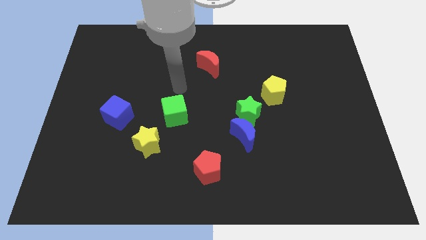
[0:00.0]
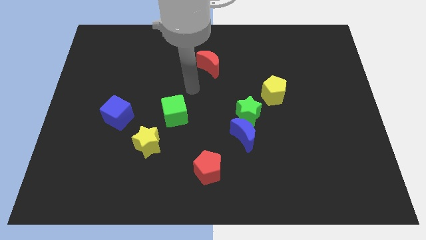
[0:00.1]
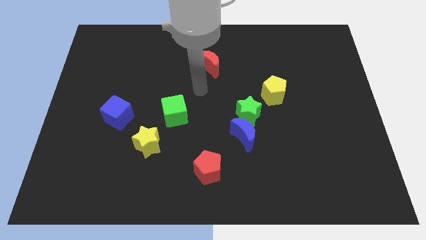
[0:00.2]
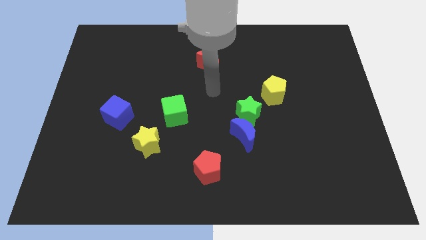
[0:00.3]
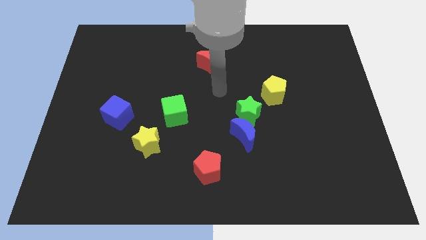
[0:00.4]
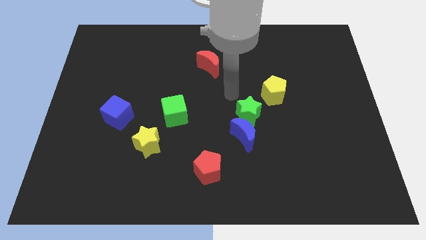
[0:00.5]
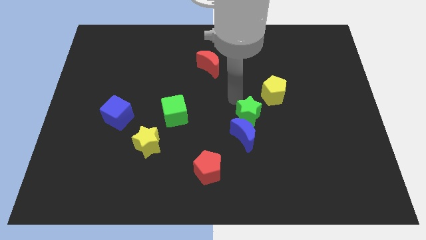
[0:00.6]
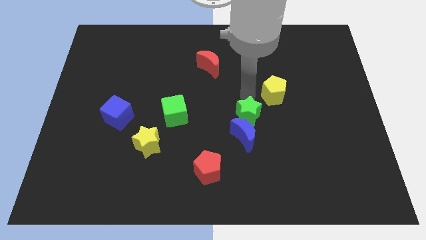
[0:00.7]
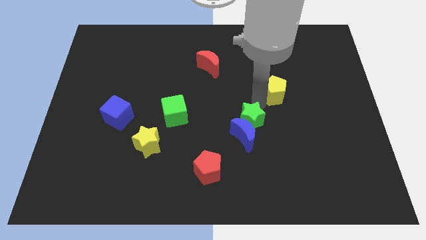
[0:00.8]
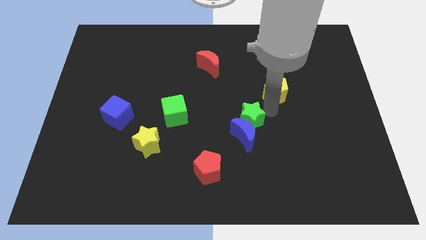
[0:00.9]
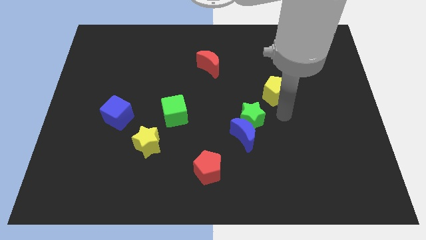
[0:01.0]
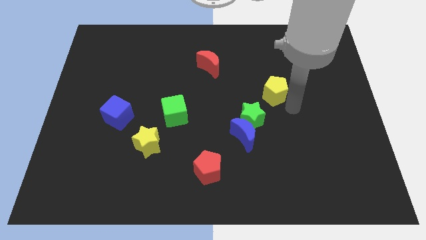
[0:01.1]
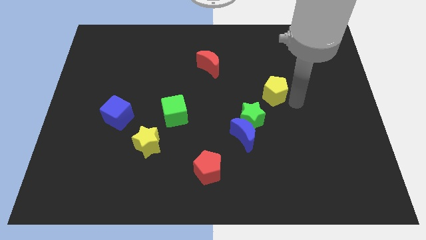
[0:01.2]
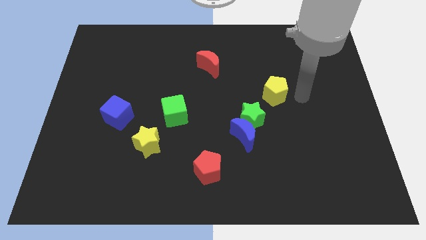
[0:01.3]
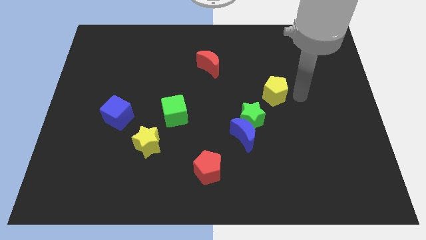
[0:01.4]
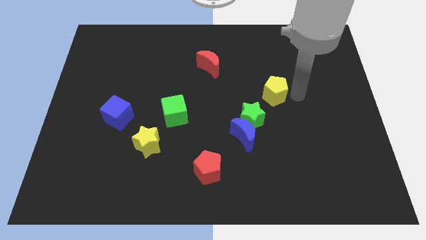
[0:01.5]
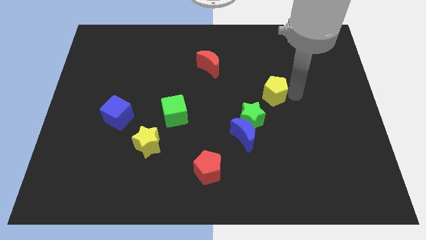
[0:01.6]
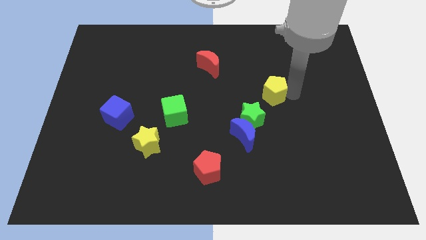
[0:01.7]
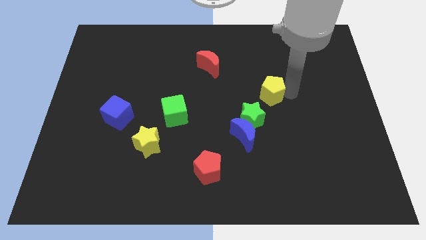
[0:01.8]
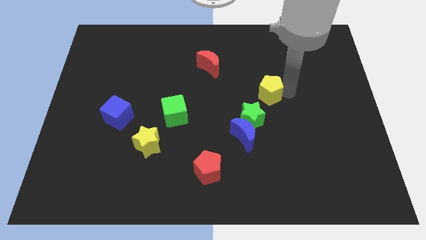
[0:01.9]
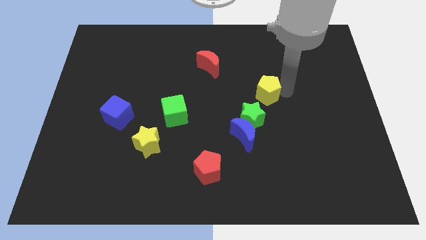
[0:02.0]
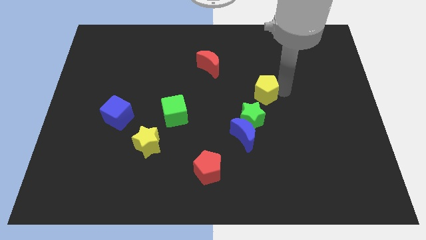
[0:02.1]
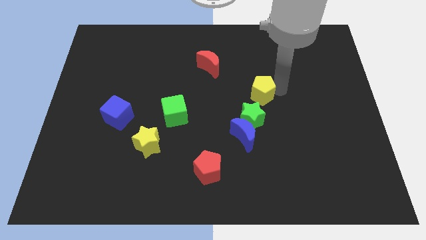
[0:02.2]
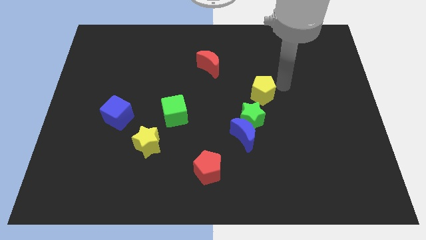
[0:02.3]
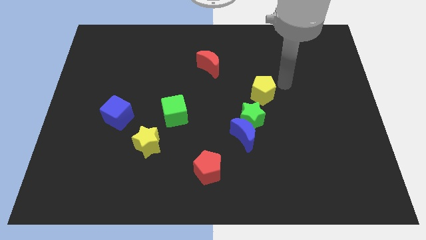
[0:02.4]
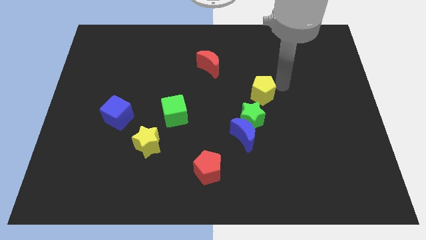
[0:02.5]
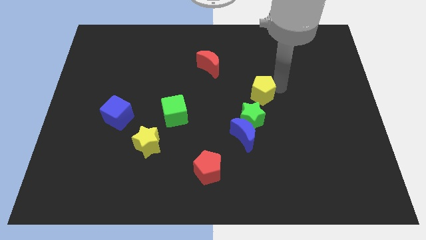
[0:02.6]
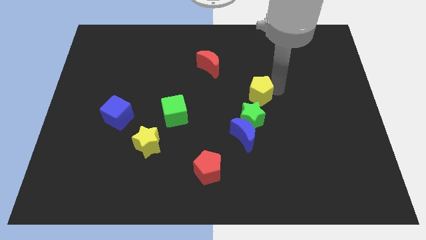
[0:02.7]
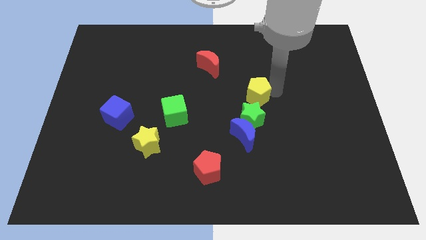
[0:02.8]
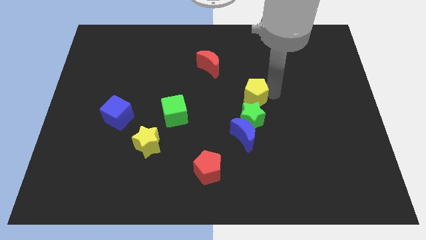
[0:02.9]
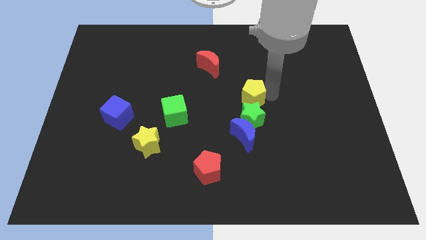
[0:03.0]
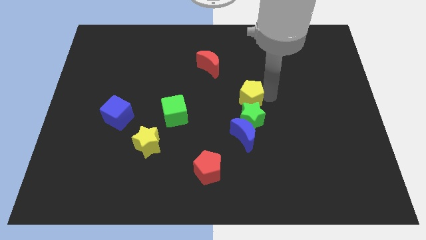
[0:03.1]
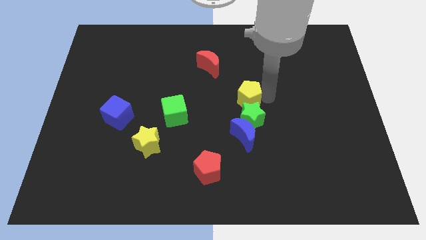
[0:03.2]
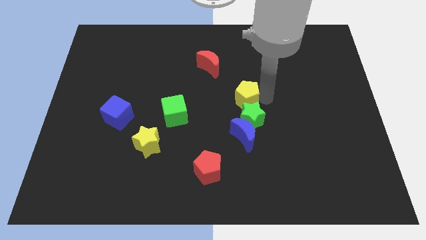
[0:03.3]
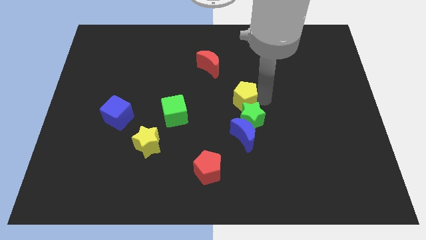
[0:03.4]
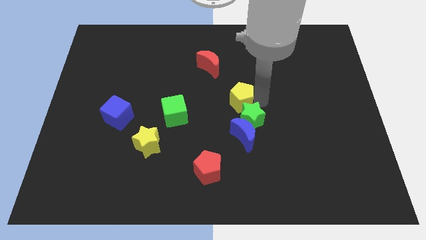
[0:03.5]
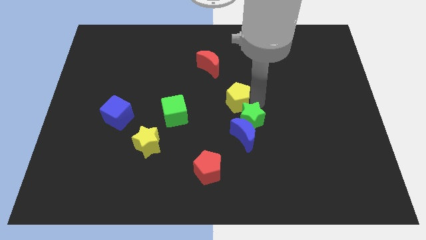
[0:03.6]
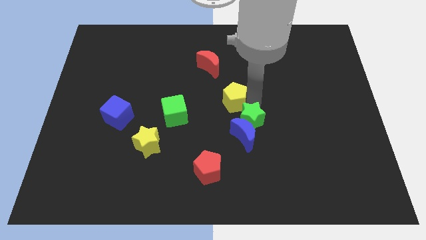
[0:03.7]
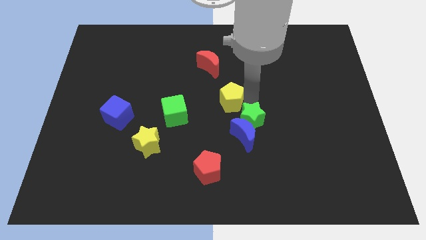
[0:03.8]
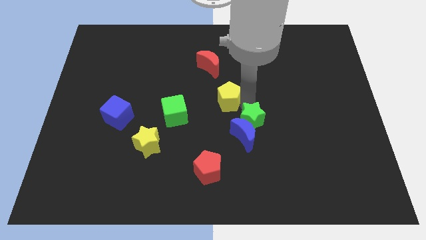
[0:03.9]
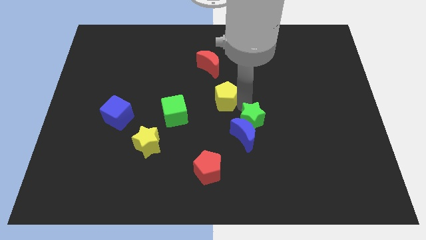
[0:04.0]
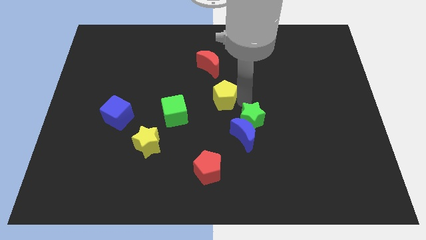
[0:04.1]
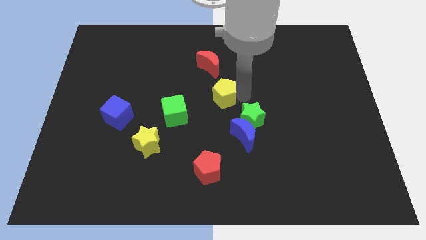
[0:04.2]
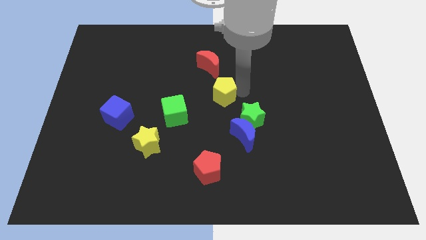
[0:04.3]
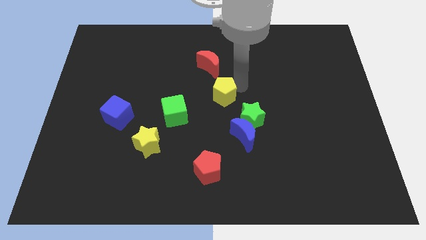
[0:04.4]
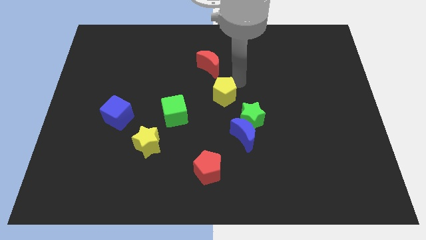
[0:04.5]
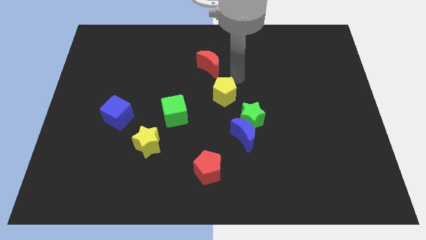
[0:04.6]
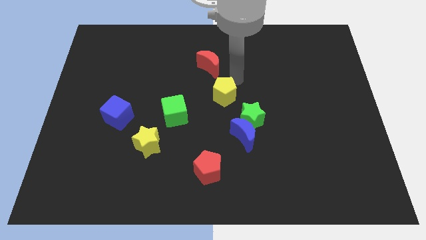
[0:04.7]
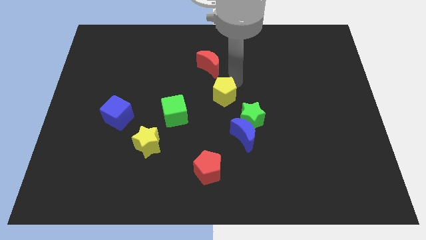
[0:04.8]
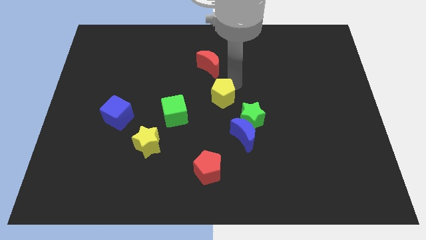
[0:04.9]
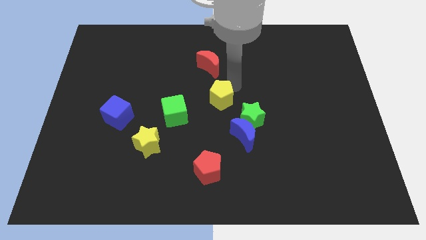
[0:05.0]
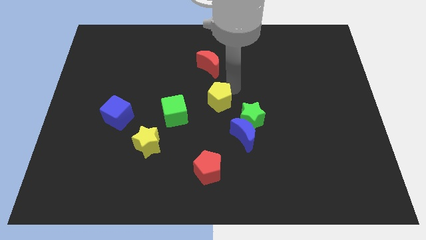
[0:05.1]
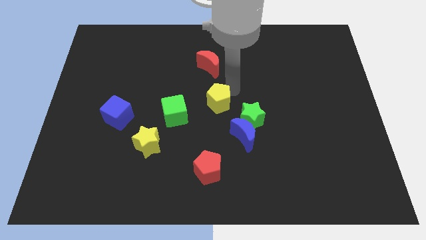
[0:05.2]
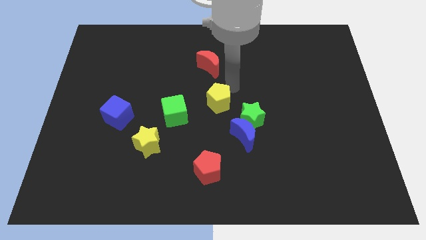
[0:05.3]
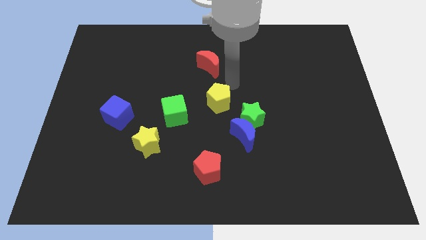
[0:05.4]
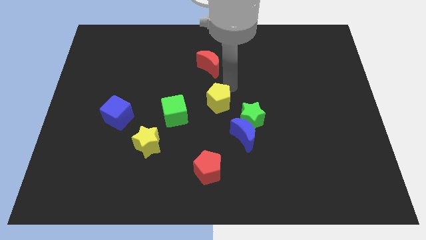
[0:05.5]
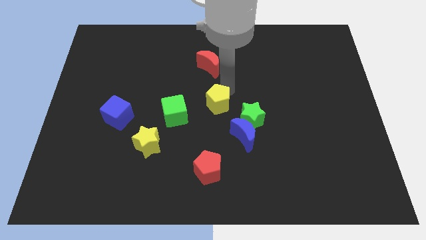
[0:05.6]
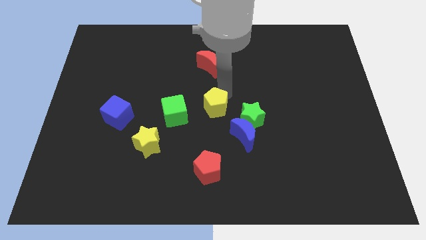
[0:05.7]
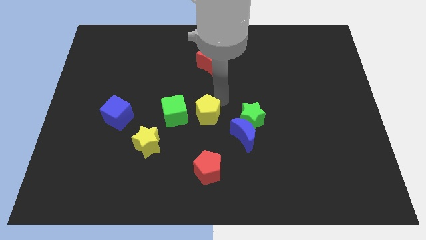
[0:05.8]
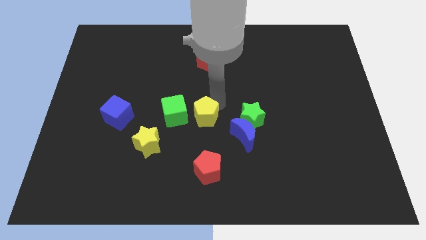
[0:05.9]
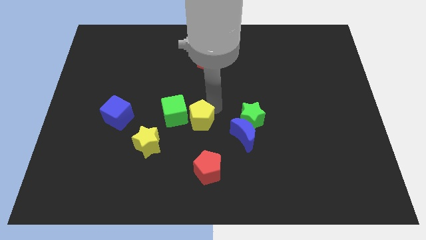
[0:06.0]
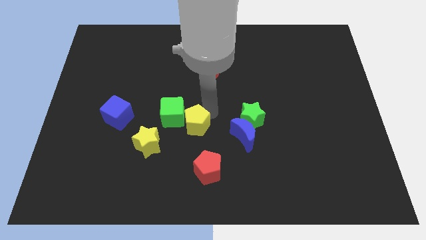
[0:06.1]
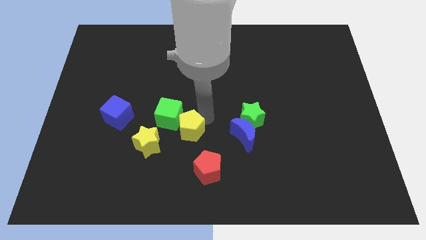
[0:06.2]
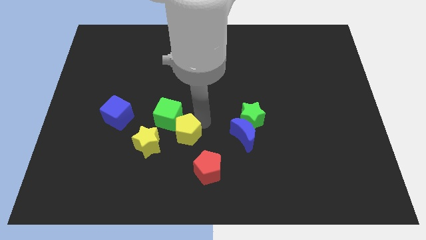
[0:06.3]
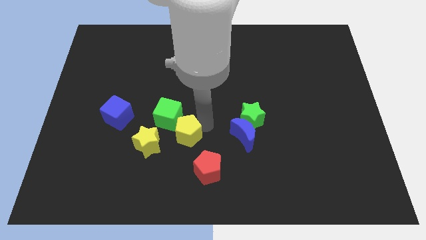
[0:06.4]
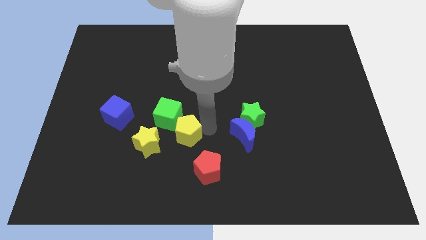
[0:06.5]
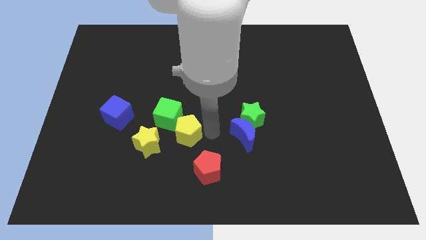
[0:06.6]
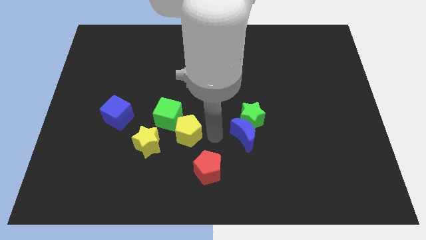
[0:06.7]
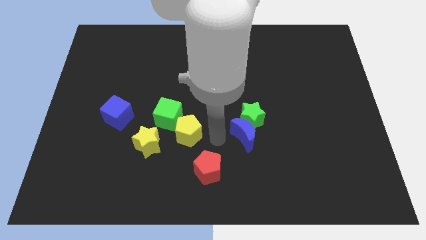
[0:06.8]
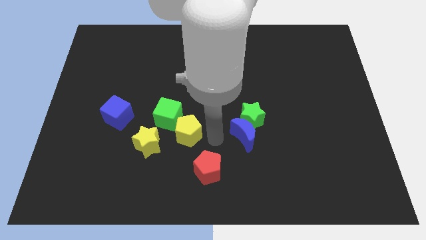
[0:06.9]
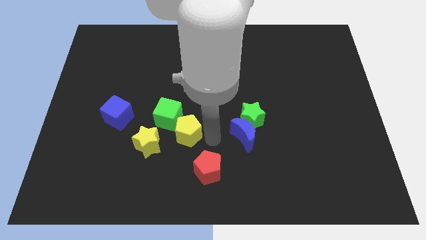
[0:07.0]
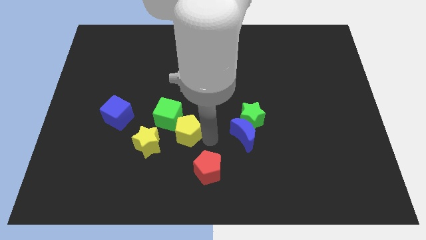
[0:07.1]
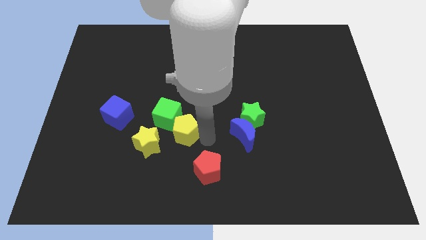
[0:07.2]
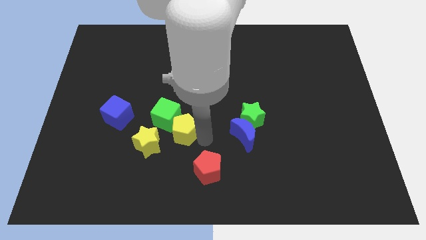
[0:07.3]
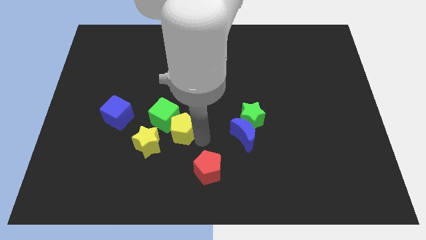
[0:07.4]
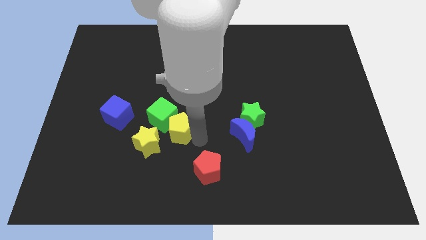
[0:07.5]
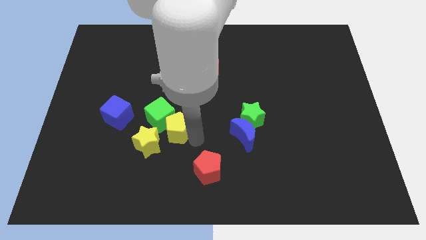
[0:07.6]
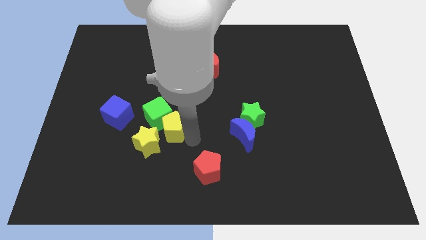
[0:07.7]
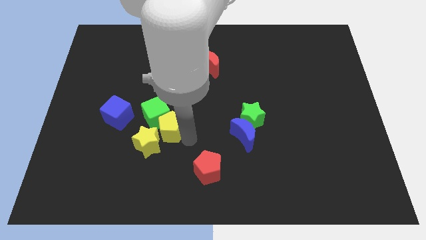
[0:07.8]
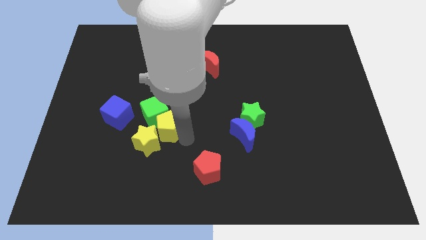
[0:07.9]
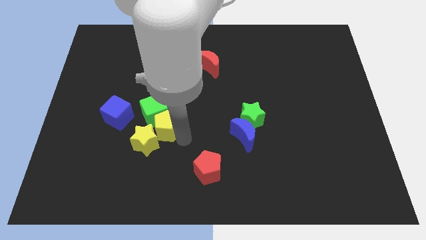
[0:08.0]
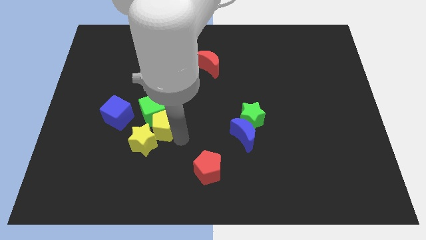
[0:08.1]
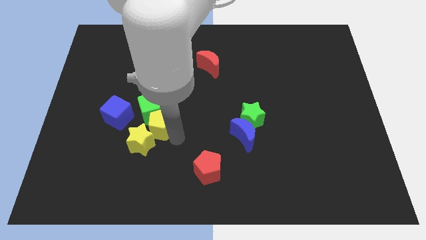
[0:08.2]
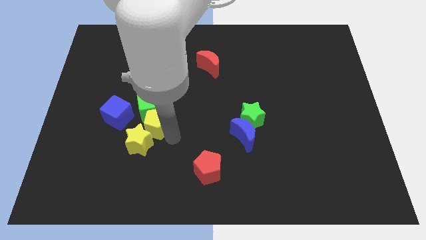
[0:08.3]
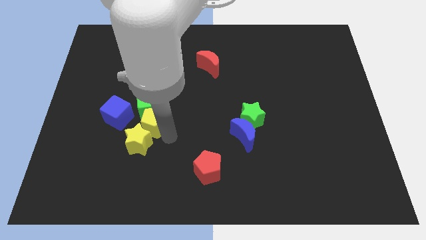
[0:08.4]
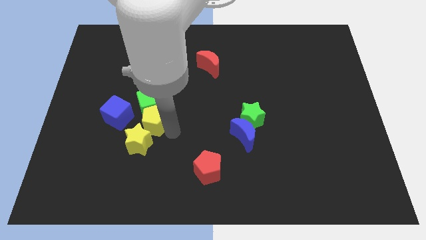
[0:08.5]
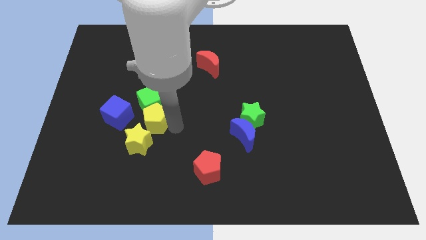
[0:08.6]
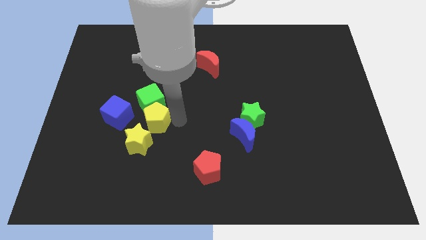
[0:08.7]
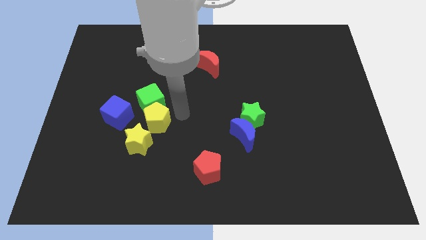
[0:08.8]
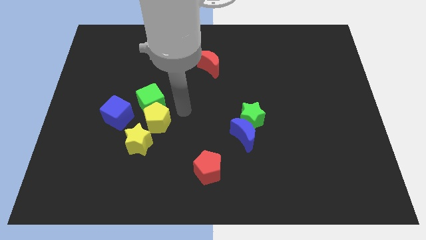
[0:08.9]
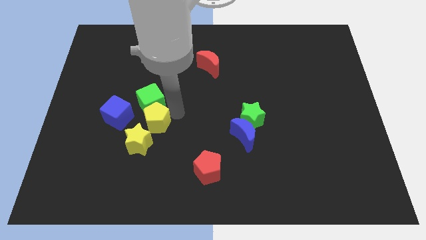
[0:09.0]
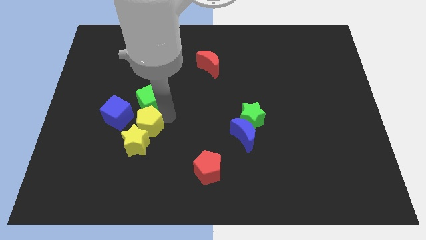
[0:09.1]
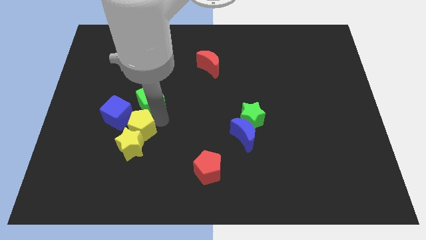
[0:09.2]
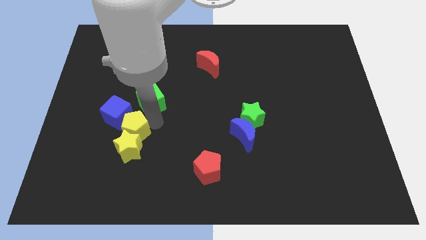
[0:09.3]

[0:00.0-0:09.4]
push the yellow pentagon to the bottom side of the blue cube
